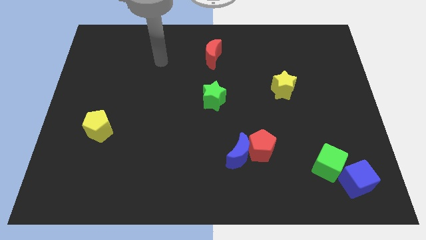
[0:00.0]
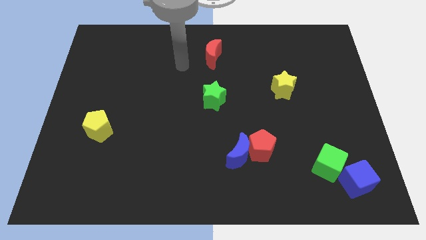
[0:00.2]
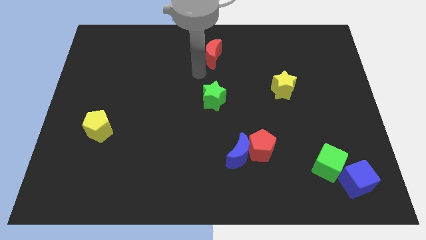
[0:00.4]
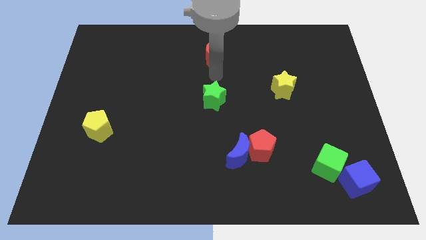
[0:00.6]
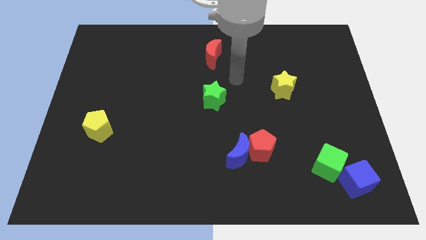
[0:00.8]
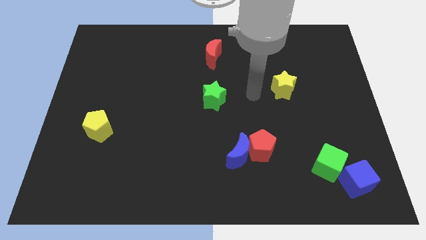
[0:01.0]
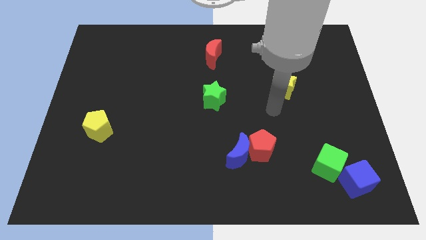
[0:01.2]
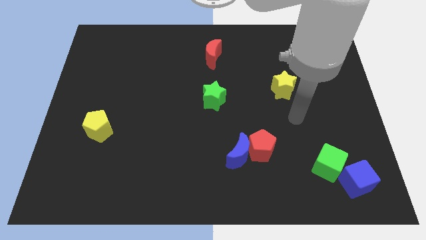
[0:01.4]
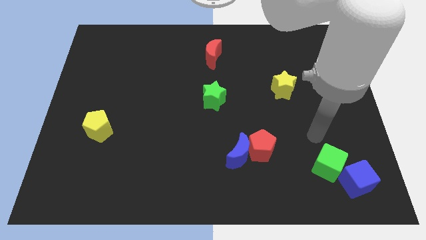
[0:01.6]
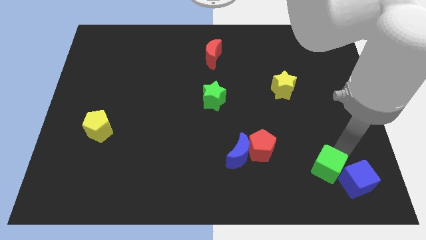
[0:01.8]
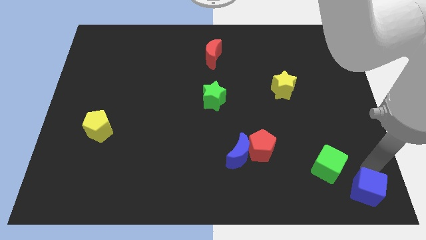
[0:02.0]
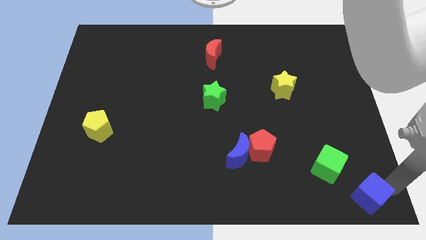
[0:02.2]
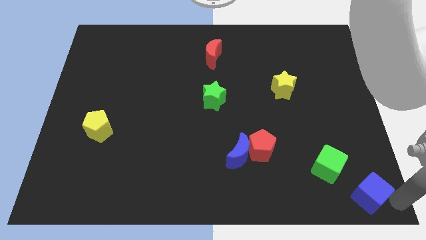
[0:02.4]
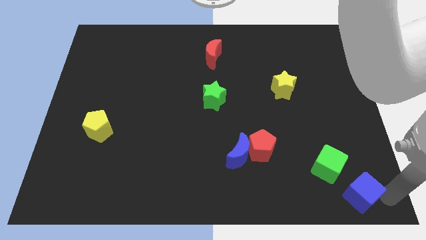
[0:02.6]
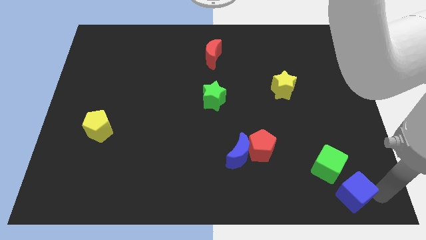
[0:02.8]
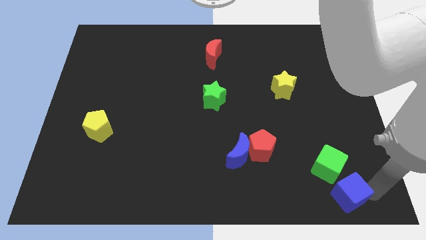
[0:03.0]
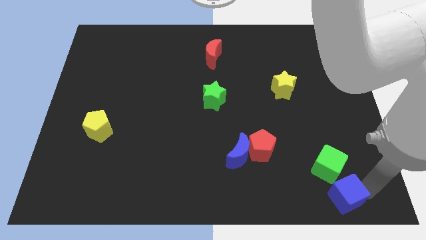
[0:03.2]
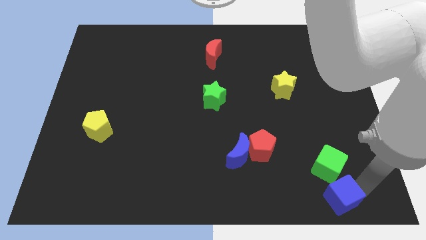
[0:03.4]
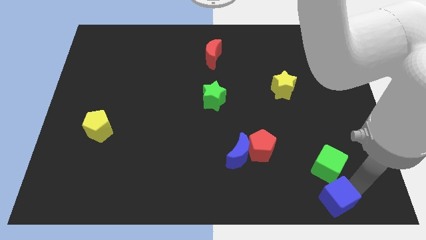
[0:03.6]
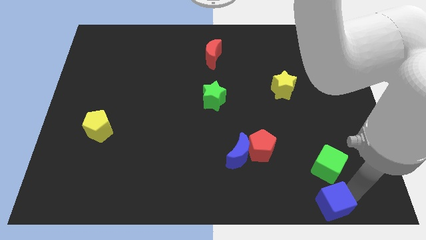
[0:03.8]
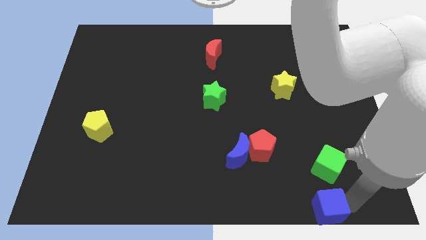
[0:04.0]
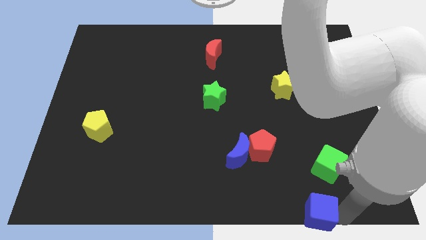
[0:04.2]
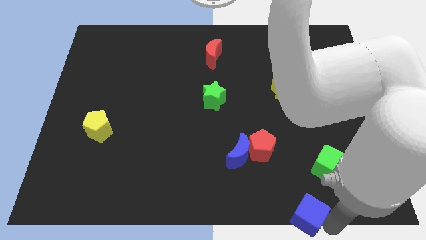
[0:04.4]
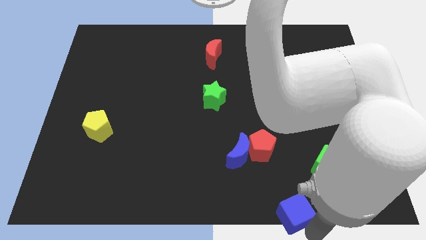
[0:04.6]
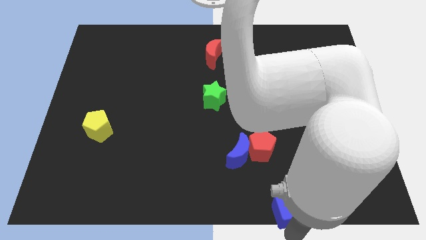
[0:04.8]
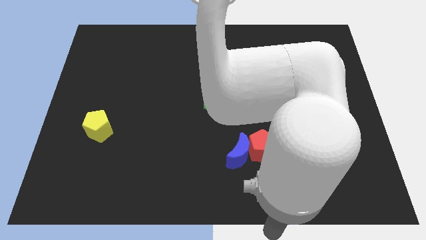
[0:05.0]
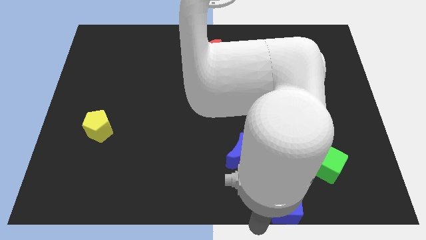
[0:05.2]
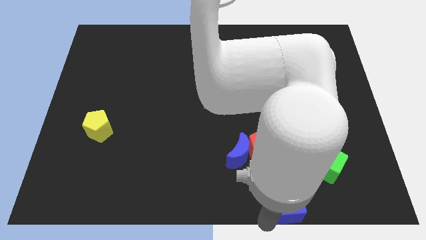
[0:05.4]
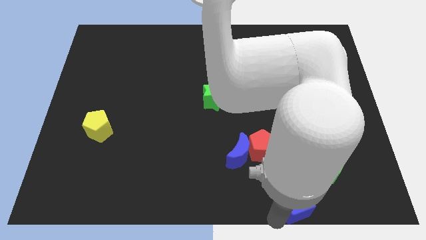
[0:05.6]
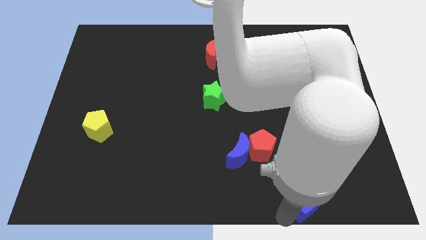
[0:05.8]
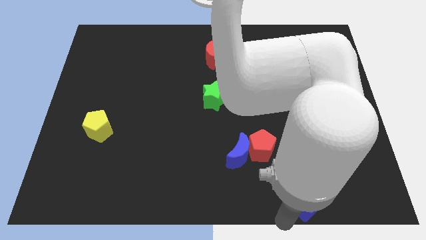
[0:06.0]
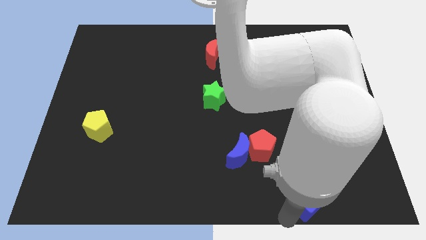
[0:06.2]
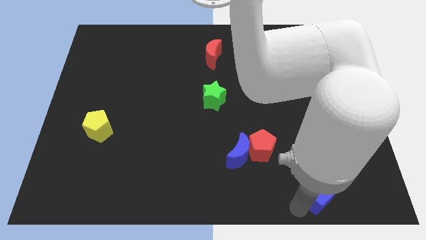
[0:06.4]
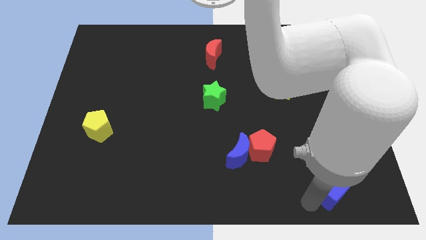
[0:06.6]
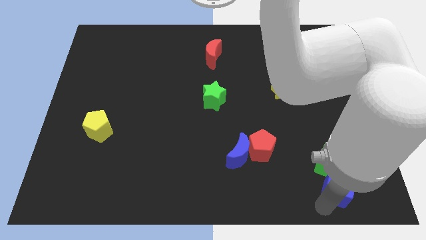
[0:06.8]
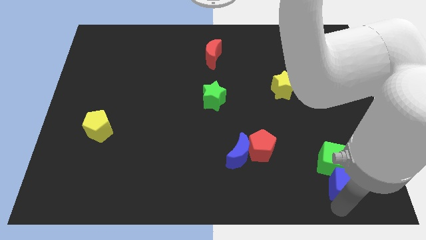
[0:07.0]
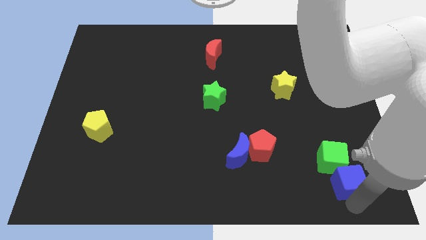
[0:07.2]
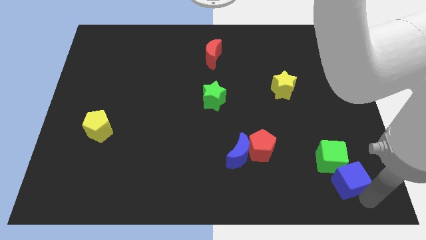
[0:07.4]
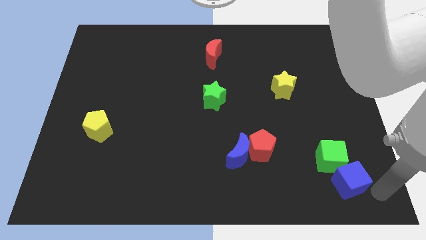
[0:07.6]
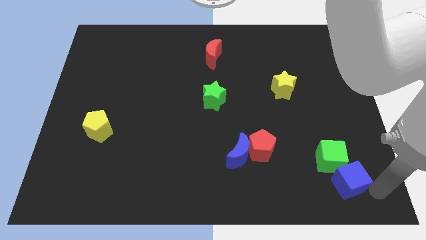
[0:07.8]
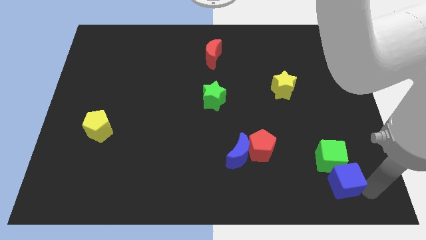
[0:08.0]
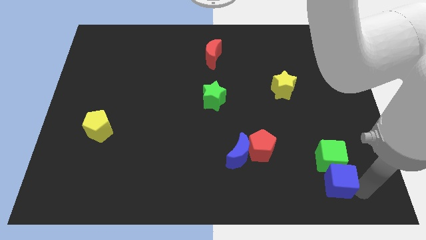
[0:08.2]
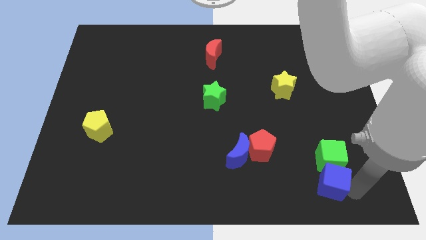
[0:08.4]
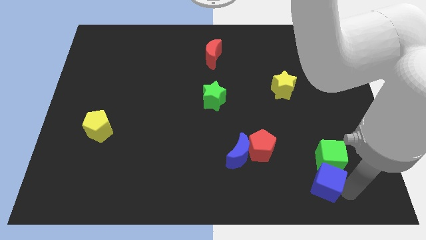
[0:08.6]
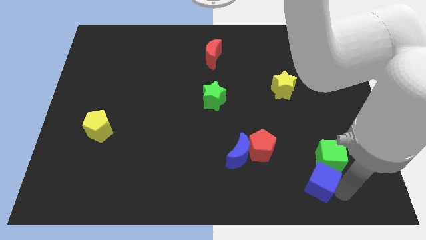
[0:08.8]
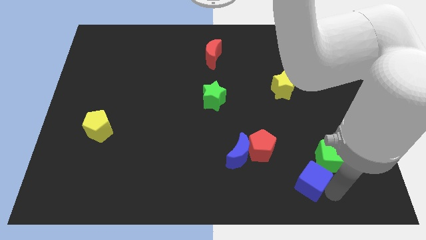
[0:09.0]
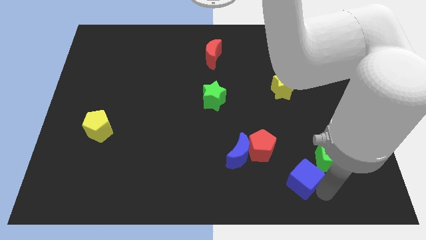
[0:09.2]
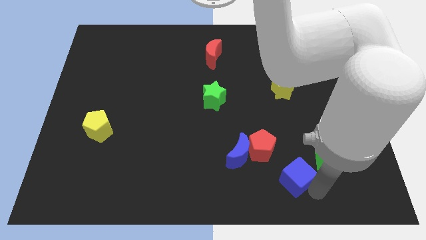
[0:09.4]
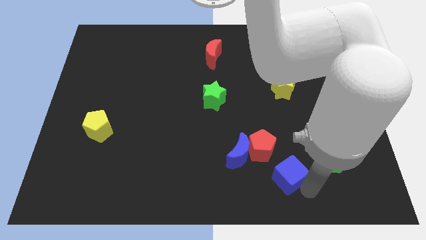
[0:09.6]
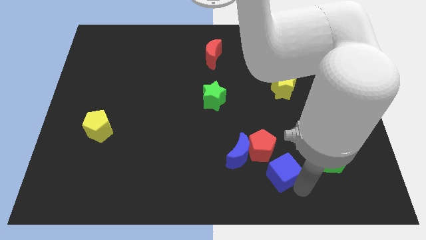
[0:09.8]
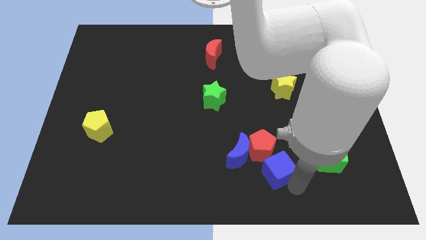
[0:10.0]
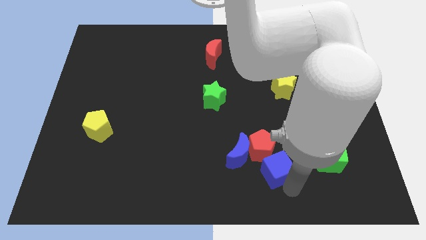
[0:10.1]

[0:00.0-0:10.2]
push the blue cube next to the red pentagon

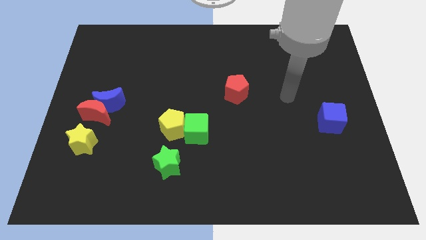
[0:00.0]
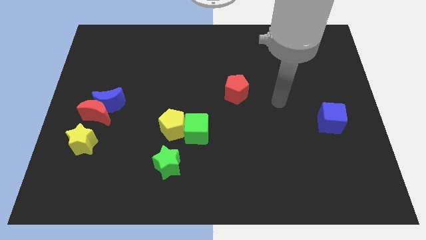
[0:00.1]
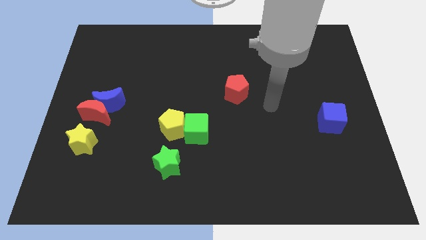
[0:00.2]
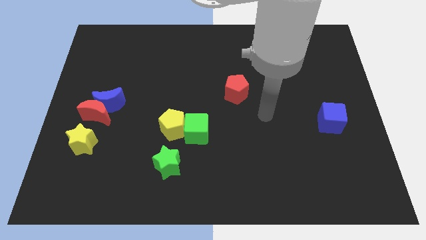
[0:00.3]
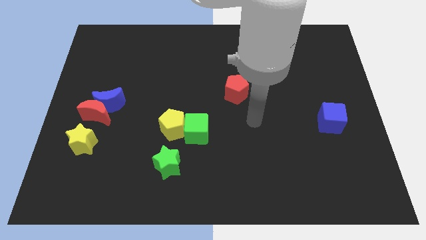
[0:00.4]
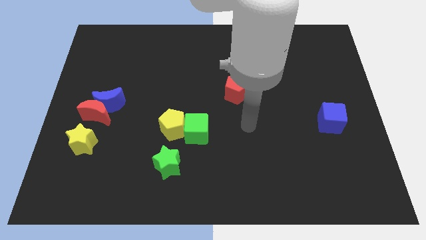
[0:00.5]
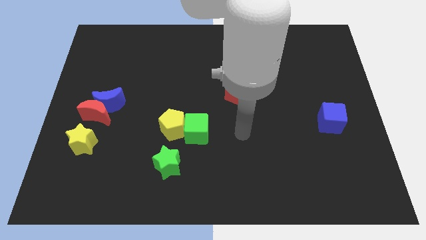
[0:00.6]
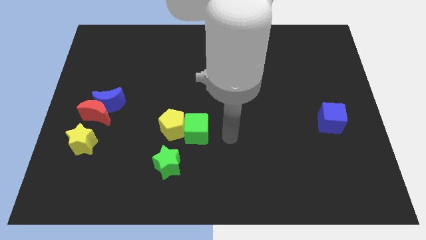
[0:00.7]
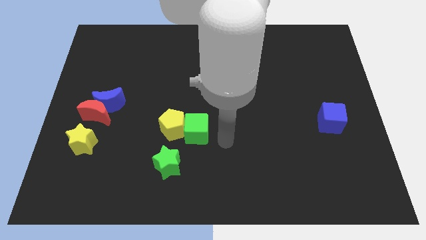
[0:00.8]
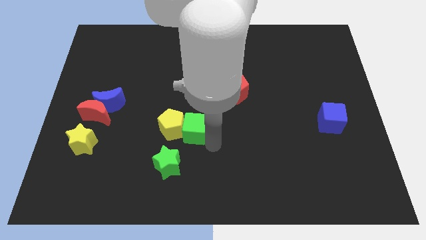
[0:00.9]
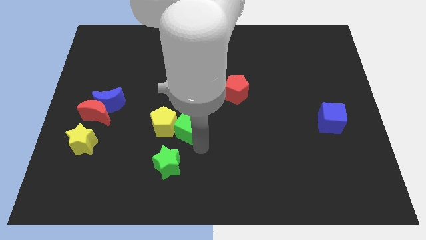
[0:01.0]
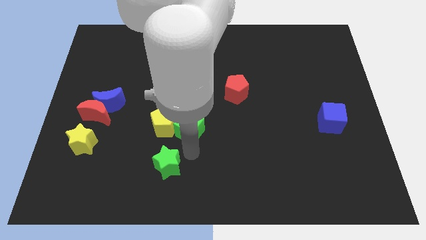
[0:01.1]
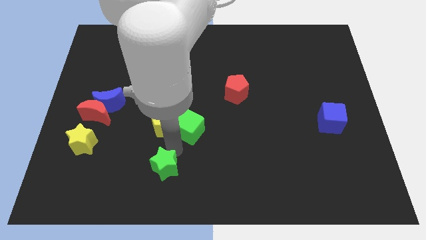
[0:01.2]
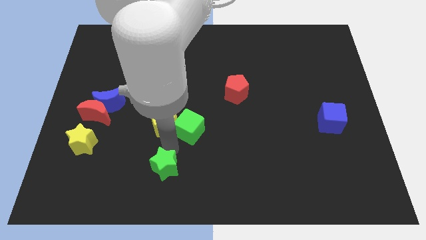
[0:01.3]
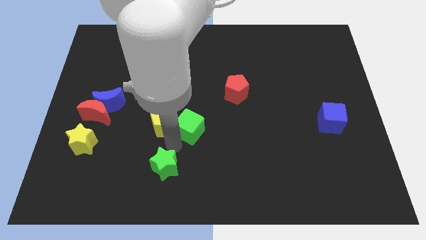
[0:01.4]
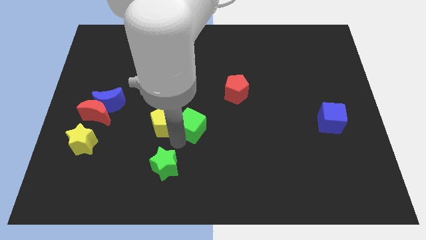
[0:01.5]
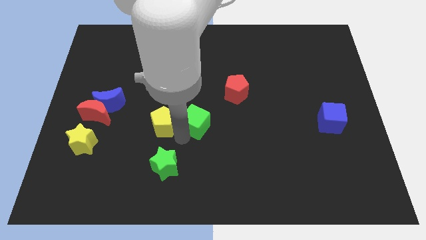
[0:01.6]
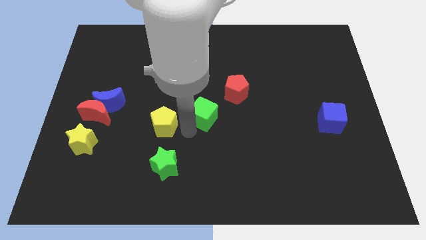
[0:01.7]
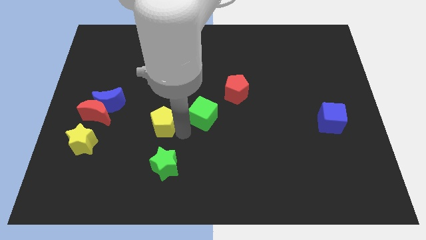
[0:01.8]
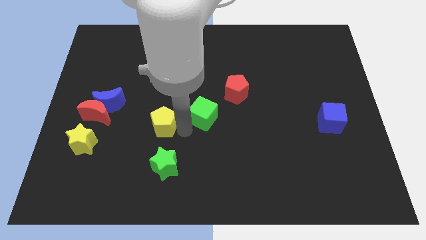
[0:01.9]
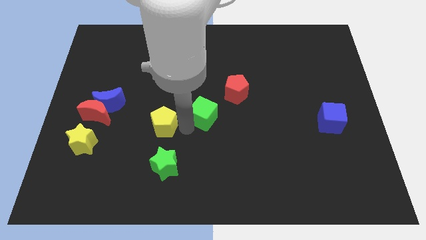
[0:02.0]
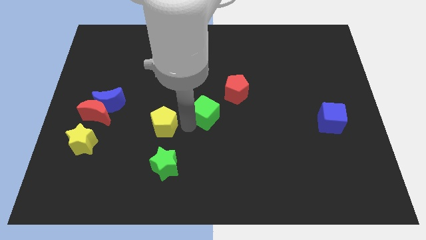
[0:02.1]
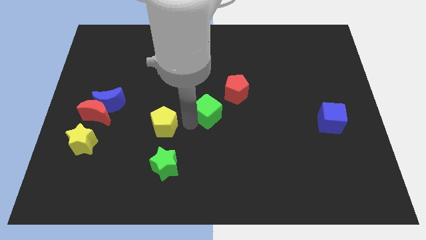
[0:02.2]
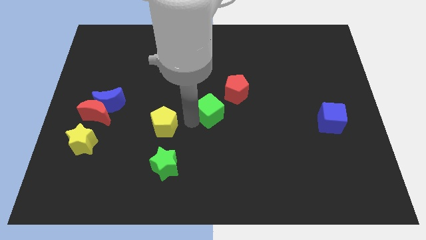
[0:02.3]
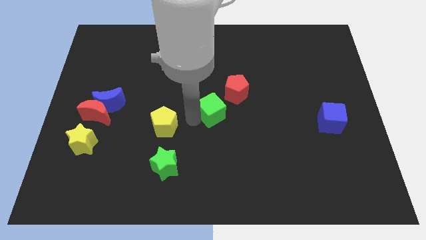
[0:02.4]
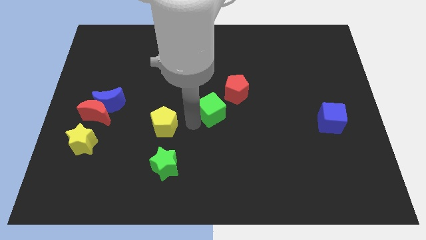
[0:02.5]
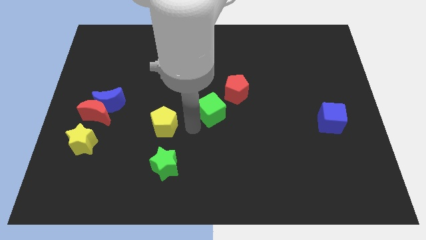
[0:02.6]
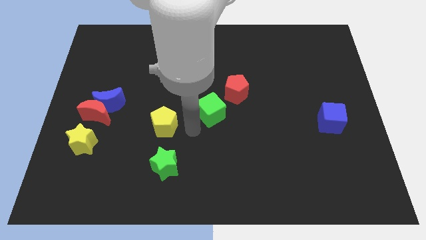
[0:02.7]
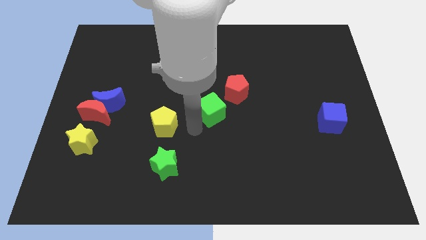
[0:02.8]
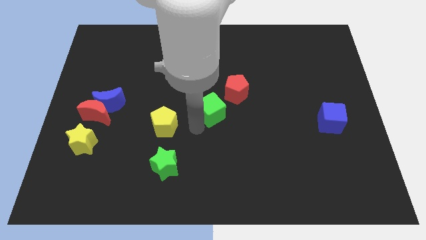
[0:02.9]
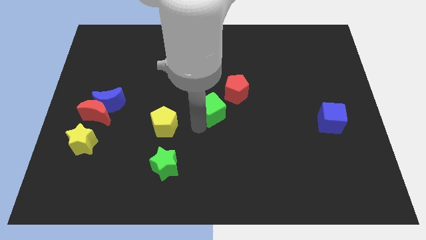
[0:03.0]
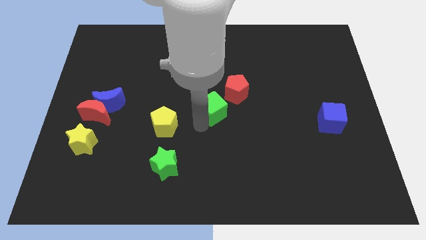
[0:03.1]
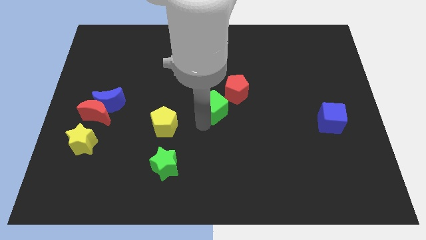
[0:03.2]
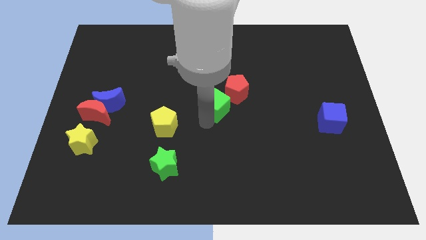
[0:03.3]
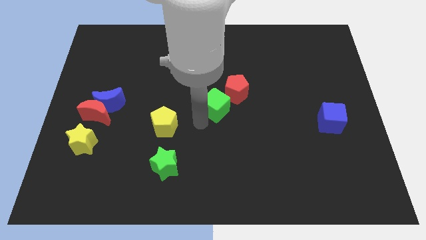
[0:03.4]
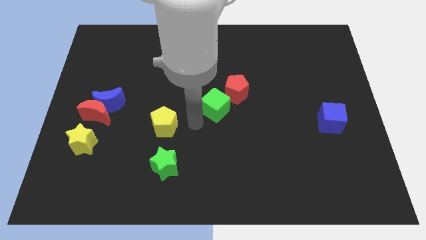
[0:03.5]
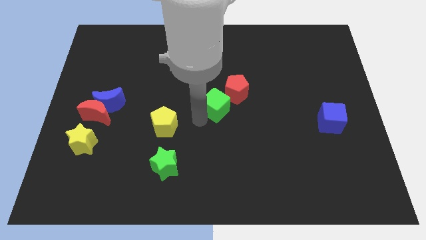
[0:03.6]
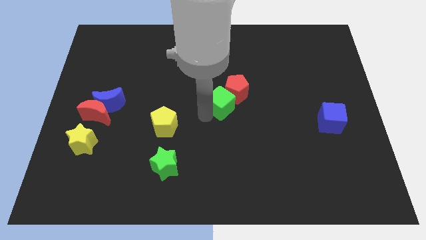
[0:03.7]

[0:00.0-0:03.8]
slide the green cube towards the red pentagon
